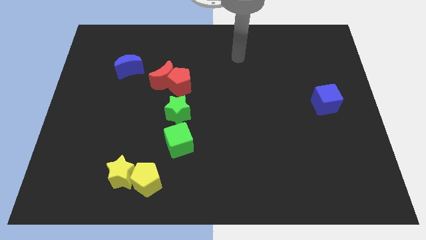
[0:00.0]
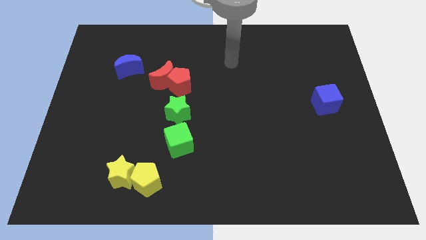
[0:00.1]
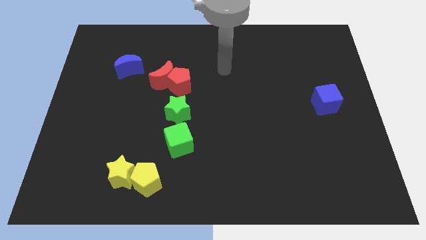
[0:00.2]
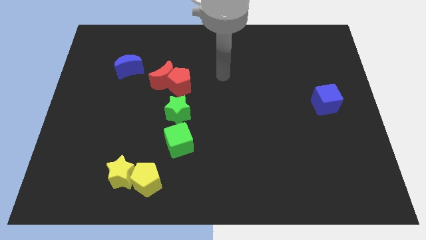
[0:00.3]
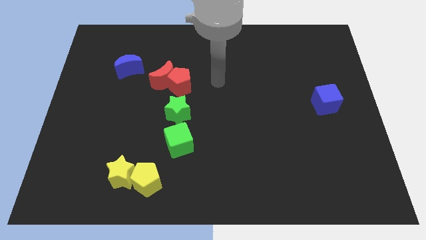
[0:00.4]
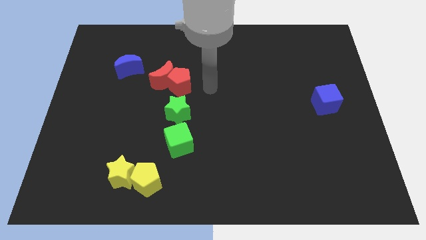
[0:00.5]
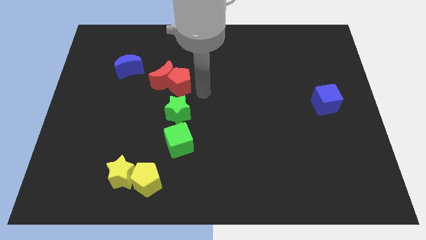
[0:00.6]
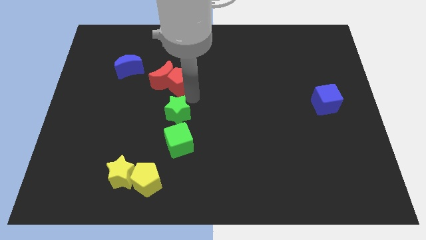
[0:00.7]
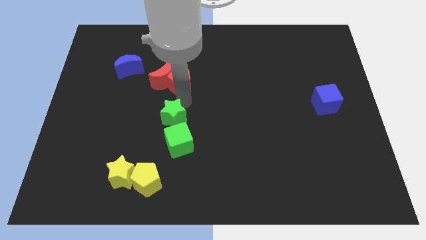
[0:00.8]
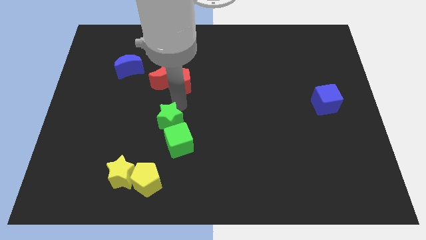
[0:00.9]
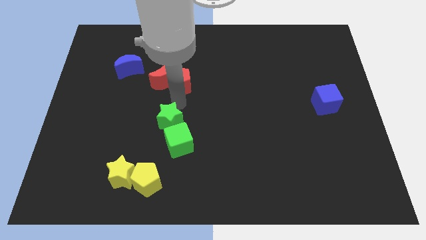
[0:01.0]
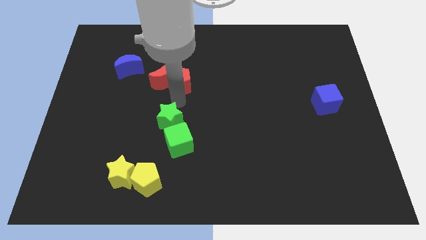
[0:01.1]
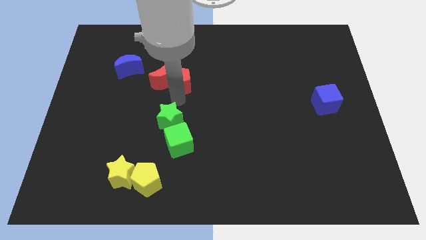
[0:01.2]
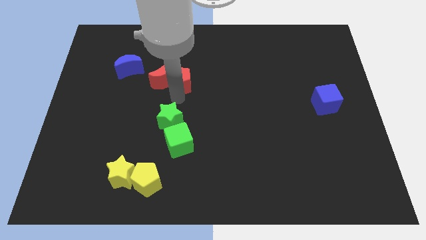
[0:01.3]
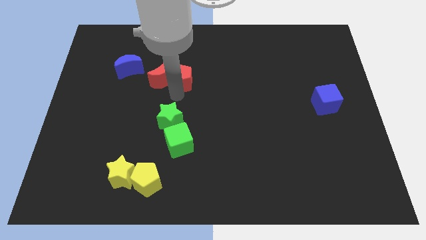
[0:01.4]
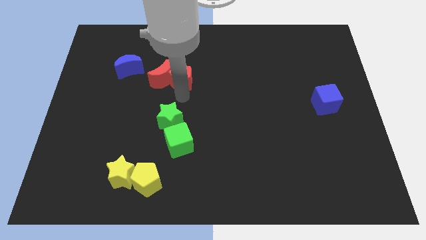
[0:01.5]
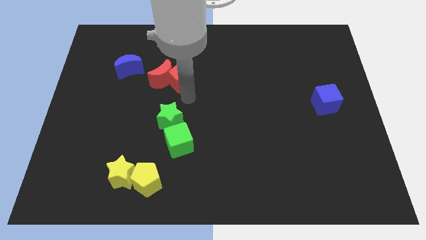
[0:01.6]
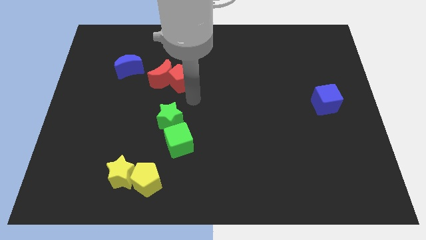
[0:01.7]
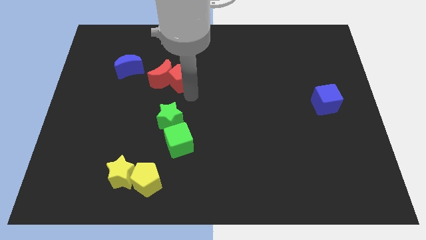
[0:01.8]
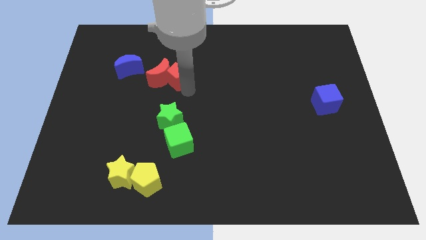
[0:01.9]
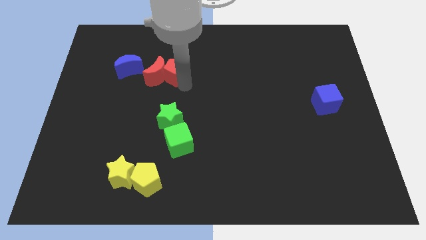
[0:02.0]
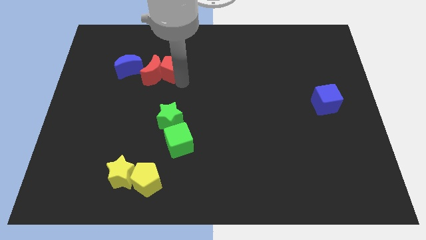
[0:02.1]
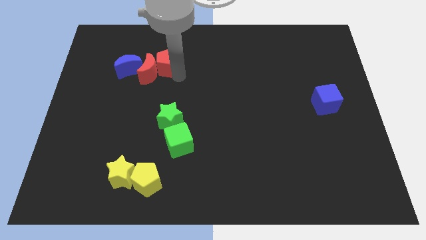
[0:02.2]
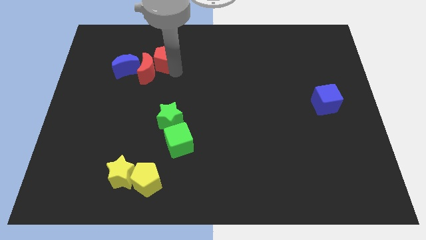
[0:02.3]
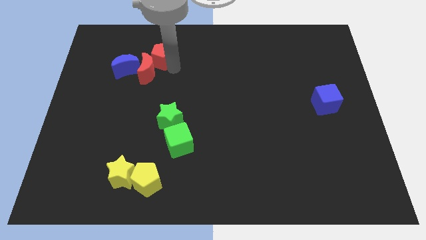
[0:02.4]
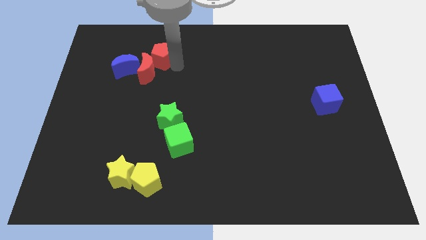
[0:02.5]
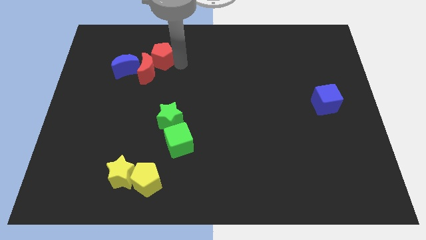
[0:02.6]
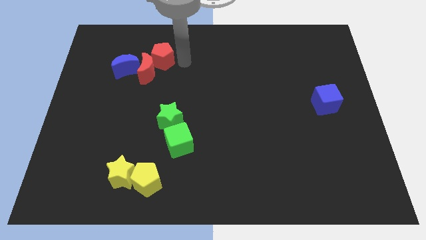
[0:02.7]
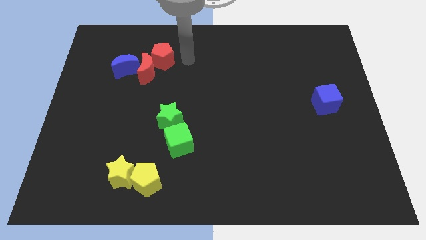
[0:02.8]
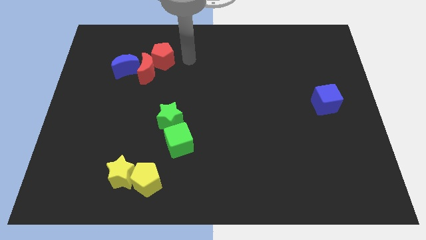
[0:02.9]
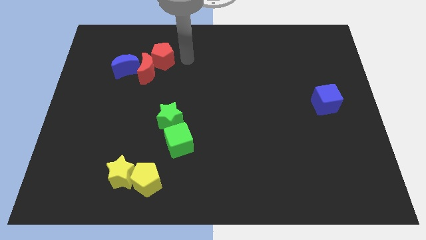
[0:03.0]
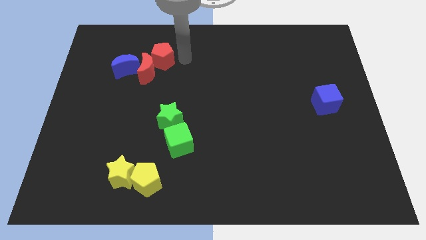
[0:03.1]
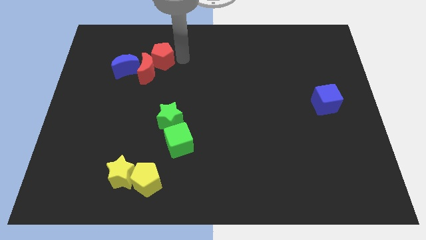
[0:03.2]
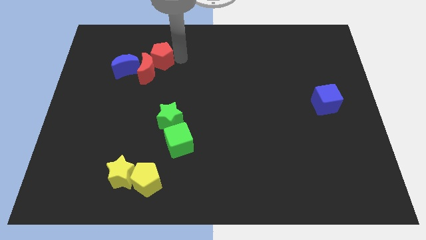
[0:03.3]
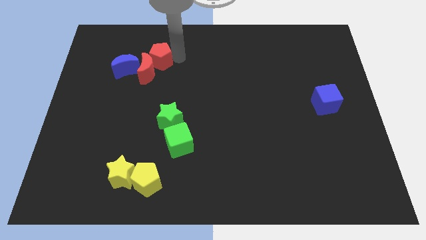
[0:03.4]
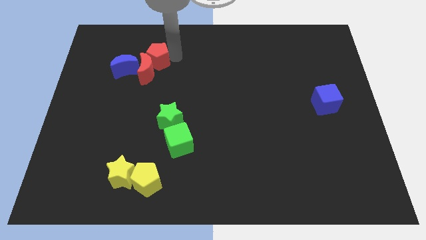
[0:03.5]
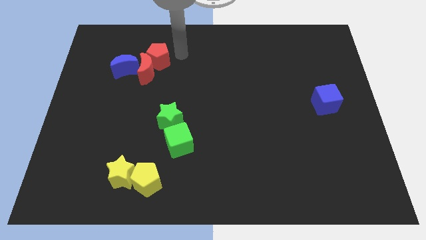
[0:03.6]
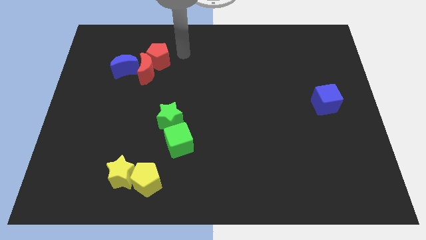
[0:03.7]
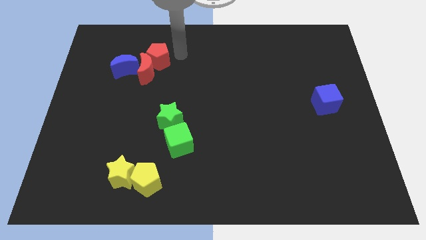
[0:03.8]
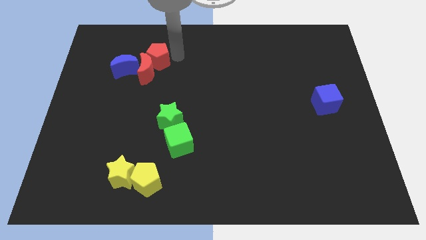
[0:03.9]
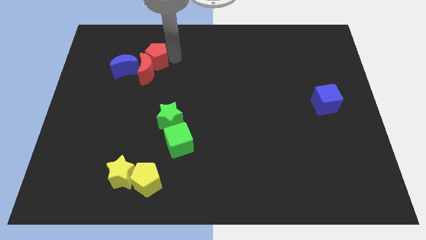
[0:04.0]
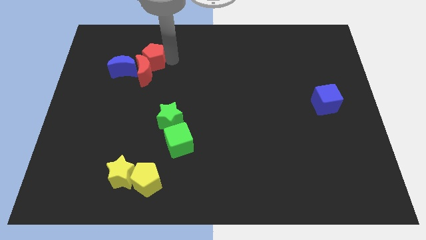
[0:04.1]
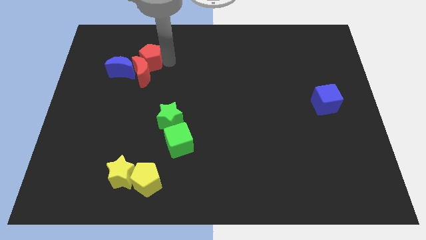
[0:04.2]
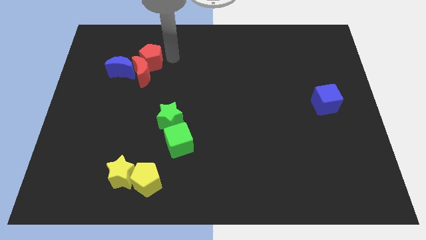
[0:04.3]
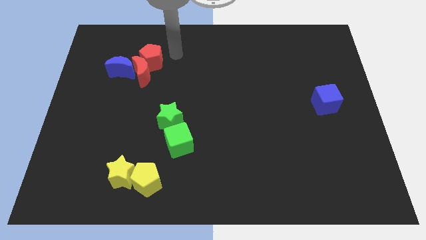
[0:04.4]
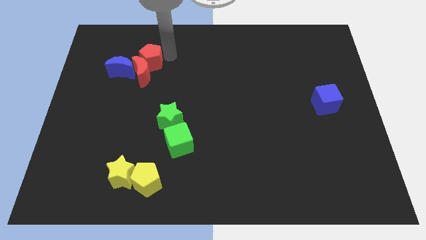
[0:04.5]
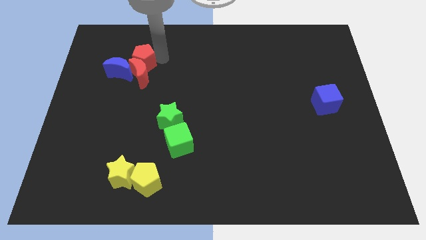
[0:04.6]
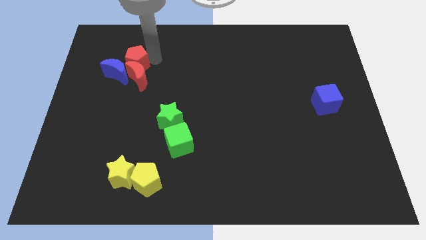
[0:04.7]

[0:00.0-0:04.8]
move the red pentagon to the blue moon

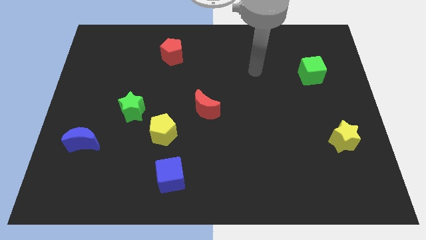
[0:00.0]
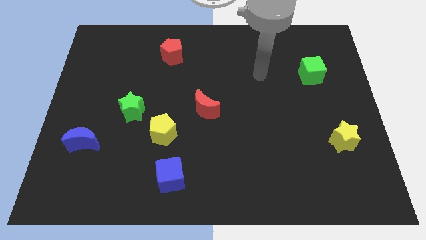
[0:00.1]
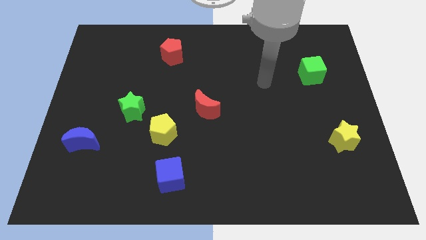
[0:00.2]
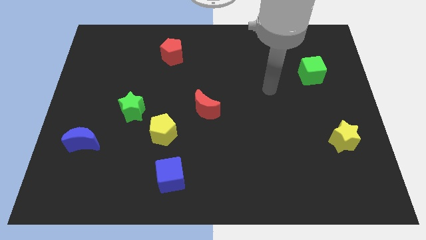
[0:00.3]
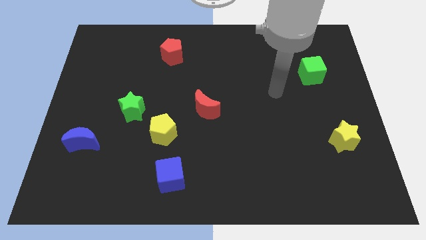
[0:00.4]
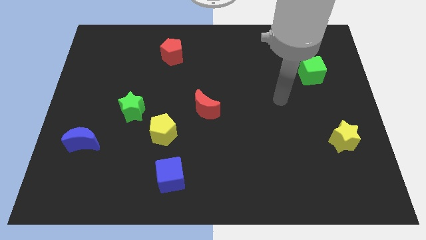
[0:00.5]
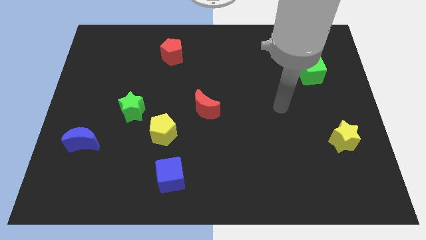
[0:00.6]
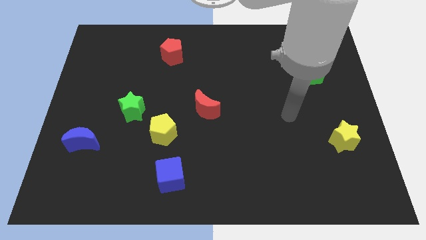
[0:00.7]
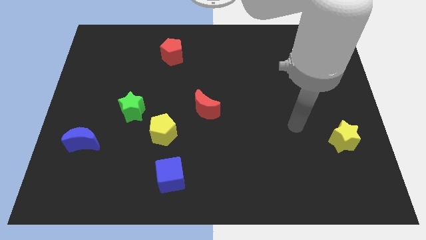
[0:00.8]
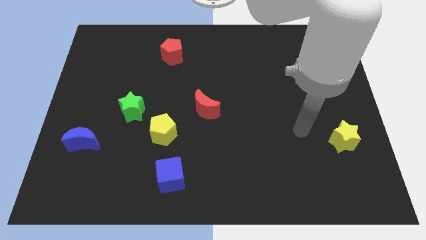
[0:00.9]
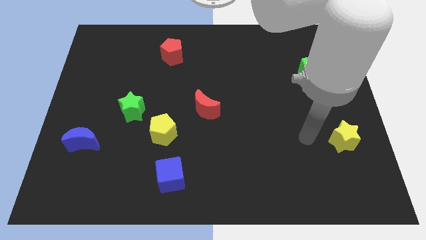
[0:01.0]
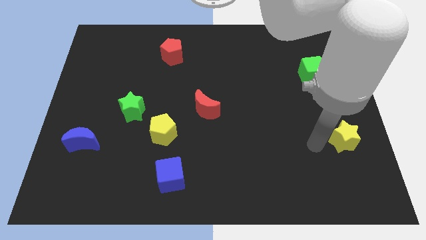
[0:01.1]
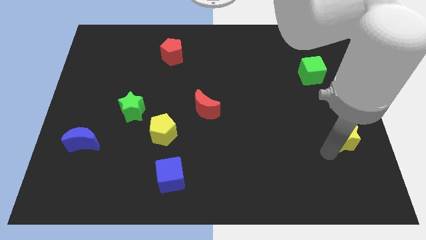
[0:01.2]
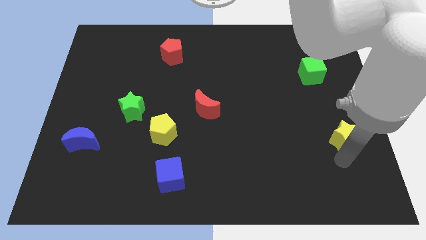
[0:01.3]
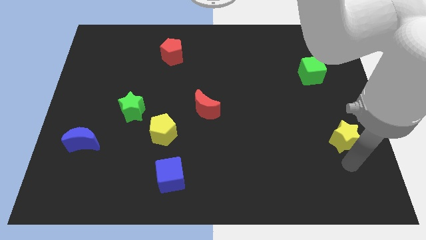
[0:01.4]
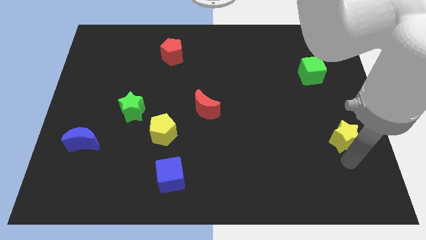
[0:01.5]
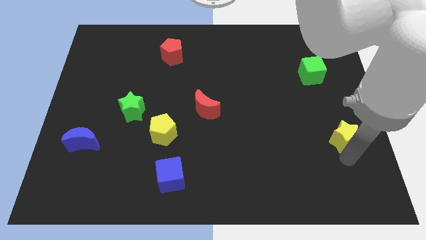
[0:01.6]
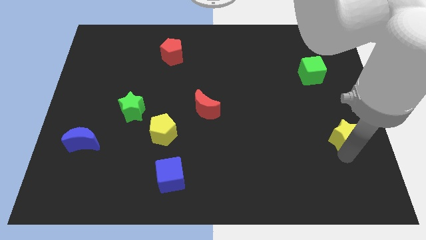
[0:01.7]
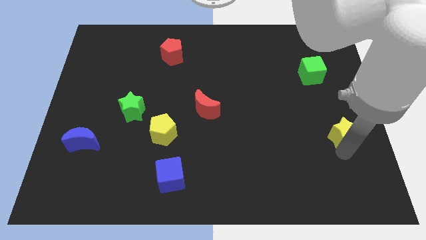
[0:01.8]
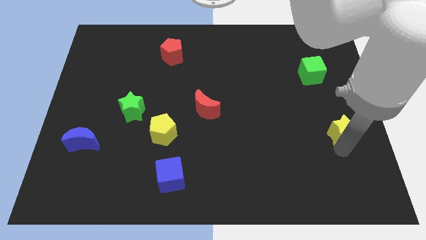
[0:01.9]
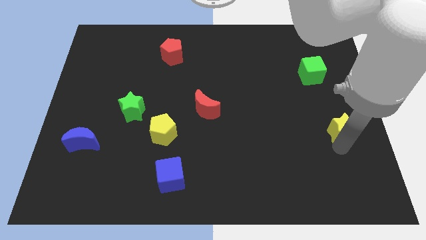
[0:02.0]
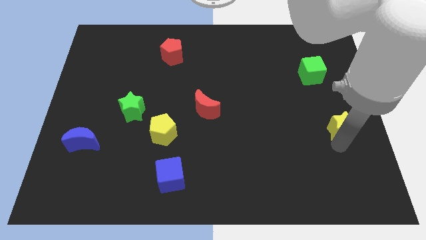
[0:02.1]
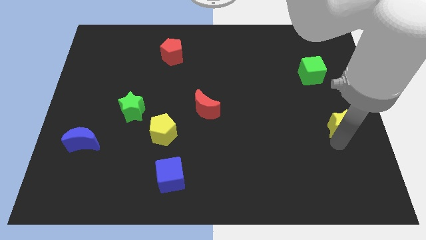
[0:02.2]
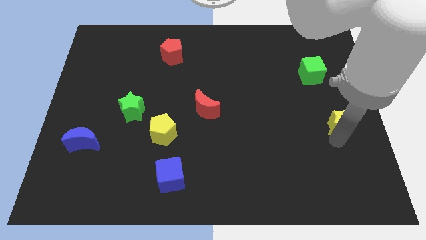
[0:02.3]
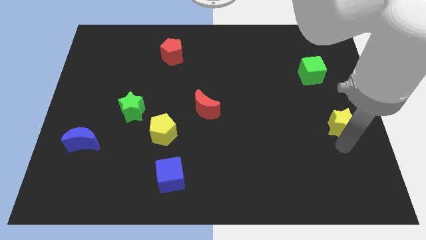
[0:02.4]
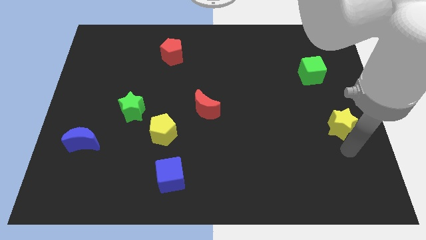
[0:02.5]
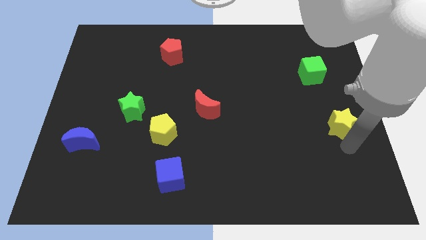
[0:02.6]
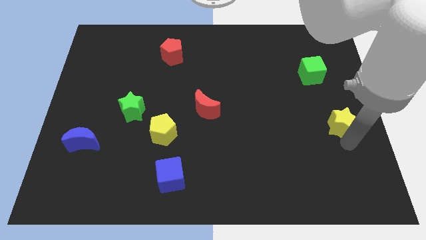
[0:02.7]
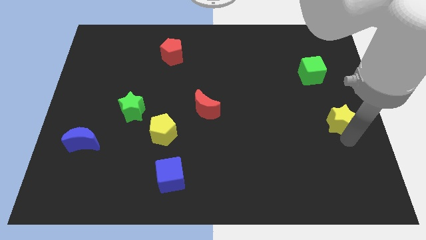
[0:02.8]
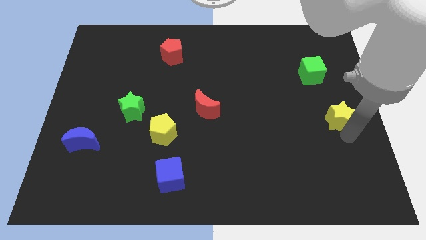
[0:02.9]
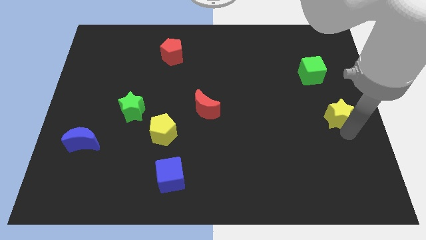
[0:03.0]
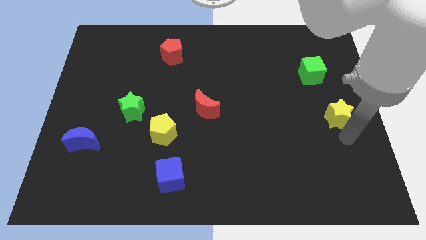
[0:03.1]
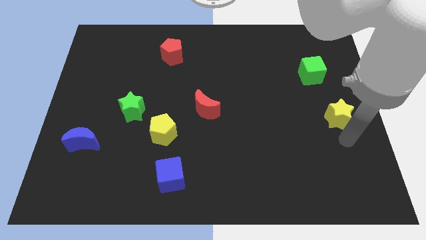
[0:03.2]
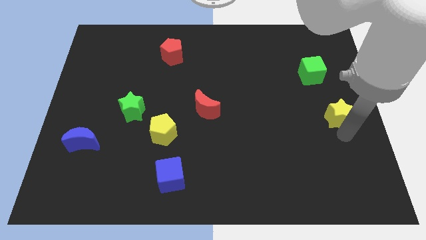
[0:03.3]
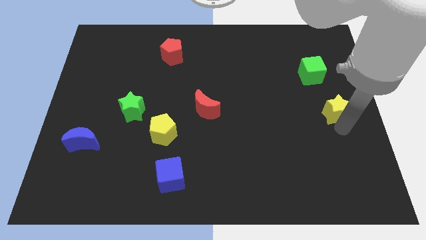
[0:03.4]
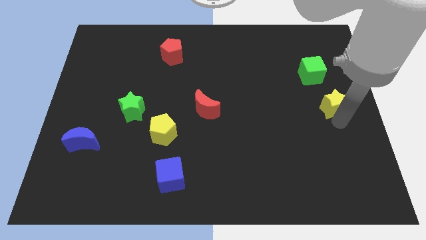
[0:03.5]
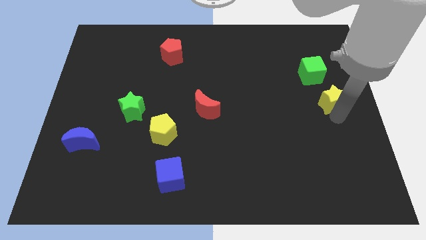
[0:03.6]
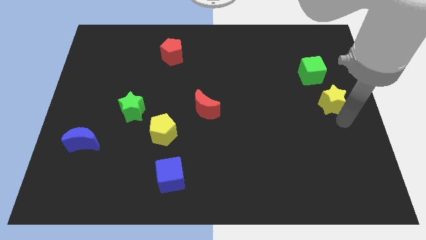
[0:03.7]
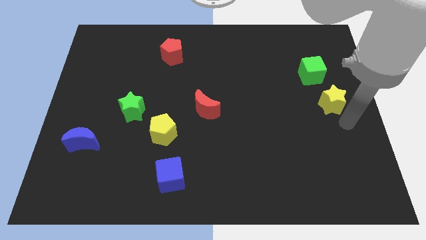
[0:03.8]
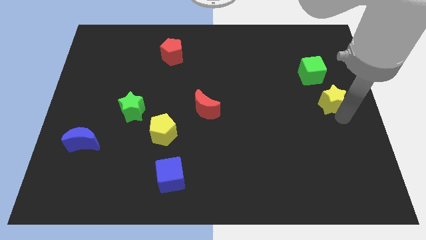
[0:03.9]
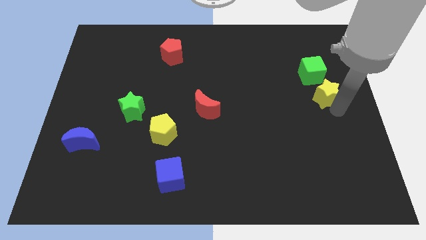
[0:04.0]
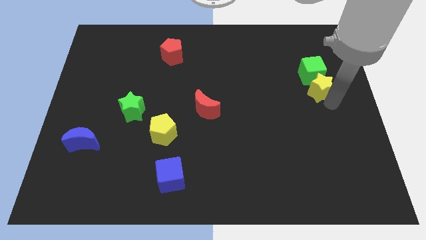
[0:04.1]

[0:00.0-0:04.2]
put the yellow star close to the green cube
